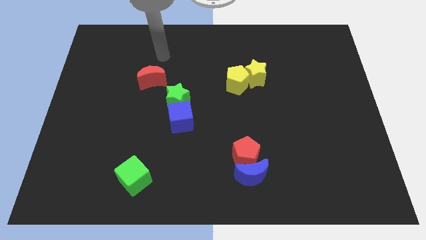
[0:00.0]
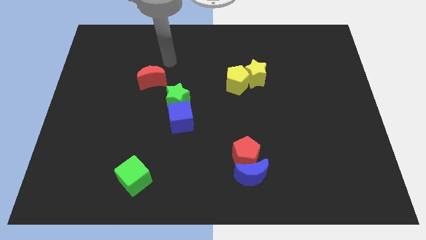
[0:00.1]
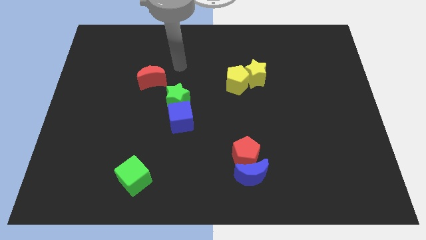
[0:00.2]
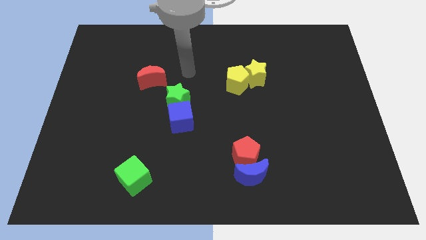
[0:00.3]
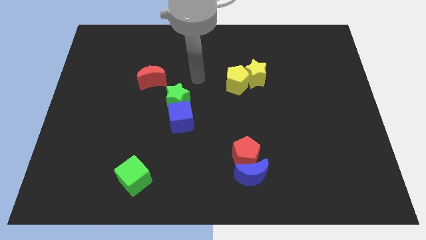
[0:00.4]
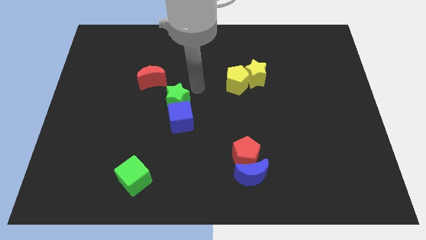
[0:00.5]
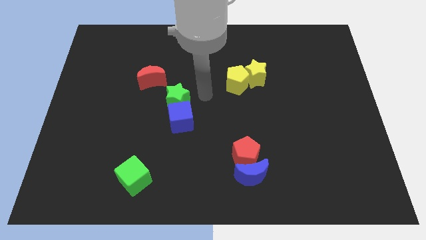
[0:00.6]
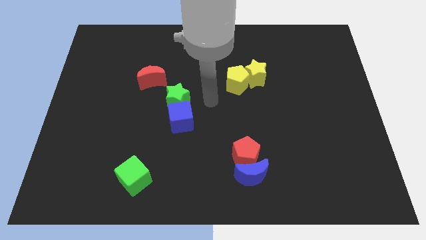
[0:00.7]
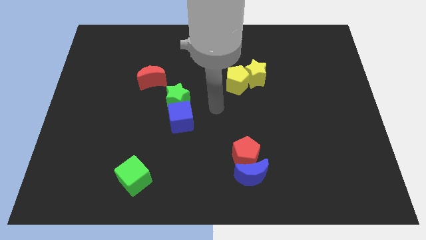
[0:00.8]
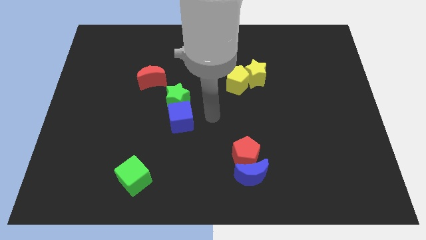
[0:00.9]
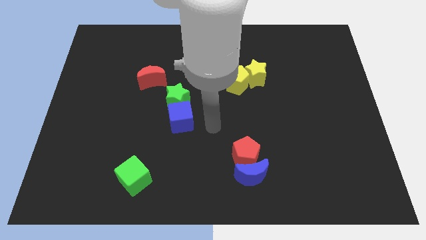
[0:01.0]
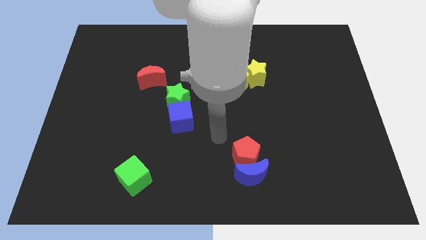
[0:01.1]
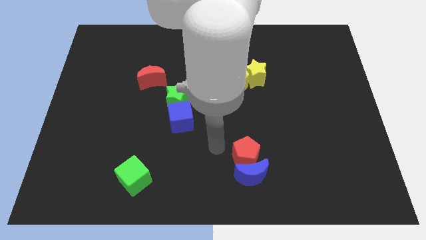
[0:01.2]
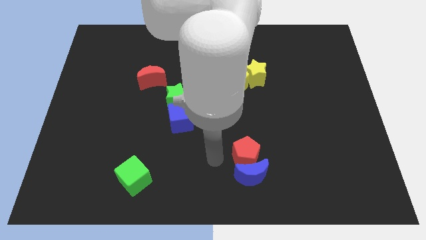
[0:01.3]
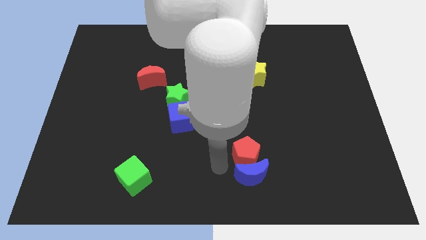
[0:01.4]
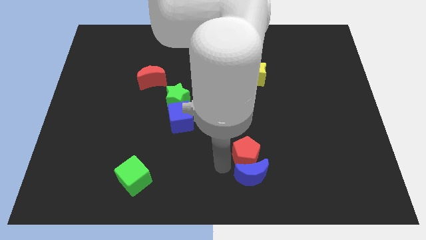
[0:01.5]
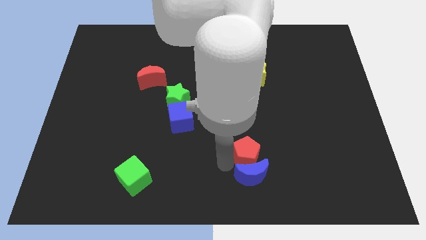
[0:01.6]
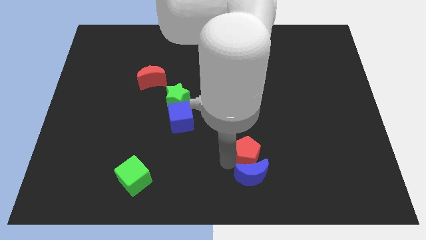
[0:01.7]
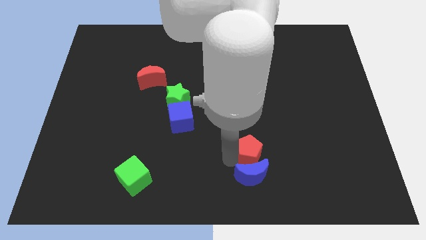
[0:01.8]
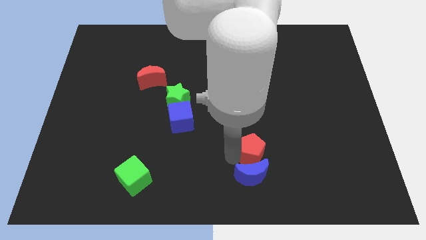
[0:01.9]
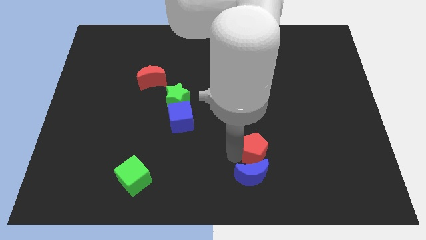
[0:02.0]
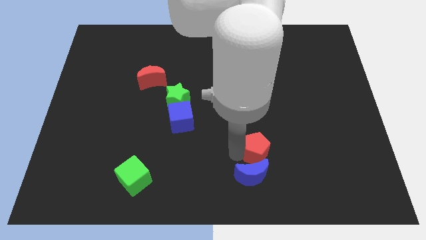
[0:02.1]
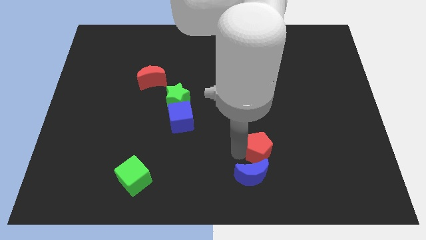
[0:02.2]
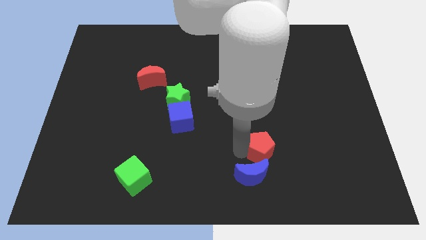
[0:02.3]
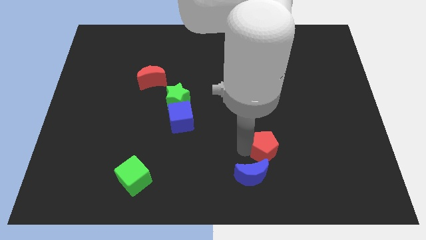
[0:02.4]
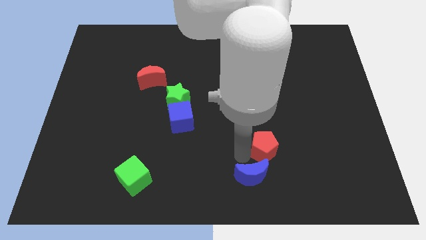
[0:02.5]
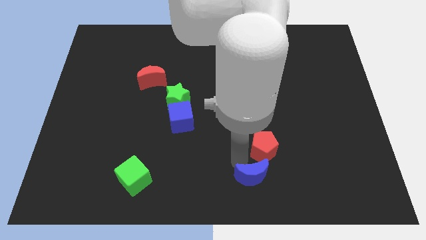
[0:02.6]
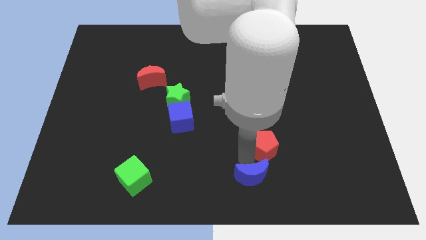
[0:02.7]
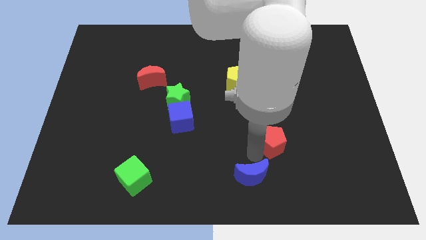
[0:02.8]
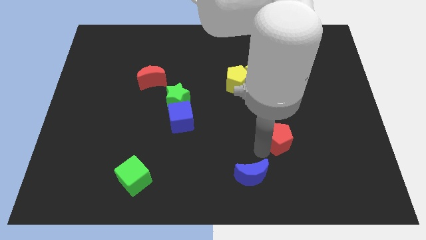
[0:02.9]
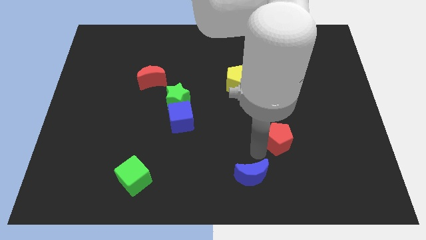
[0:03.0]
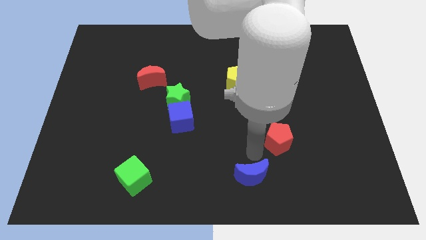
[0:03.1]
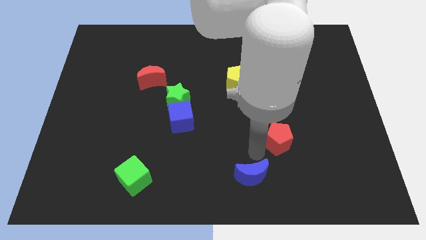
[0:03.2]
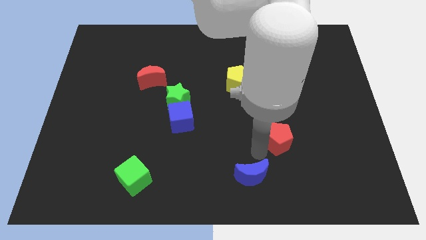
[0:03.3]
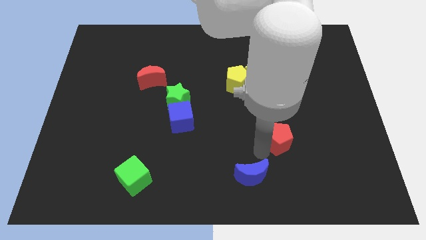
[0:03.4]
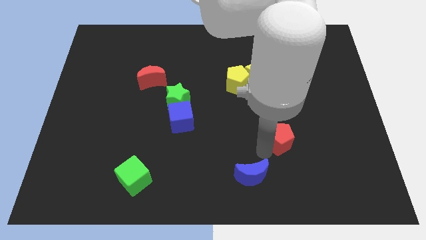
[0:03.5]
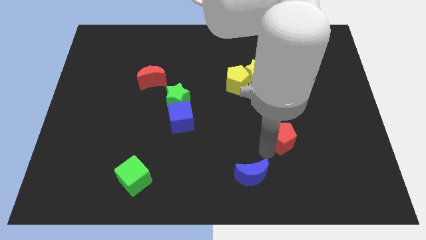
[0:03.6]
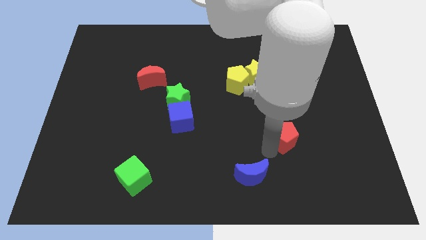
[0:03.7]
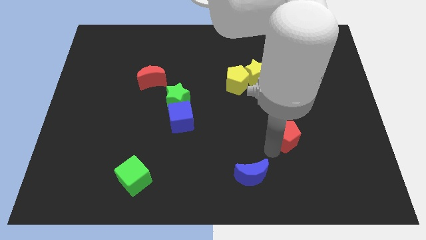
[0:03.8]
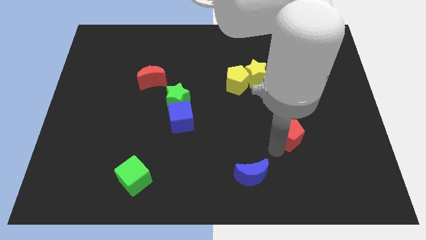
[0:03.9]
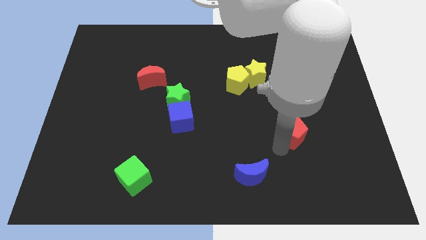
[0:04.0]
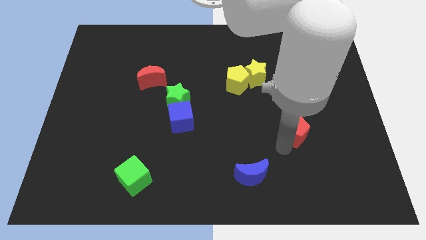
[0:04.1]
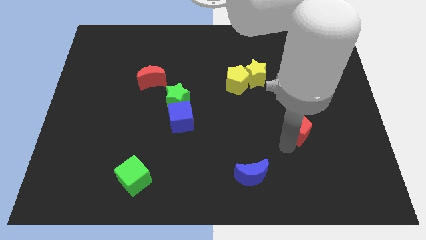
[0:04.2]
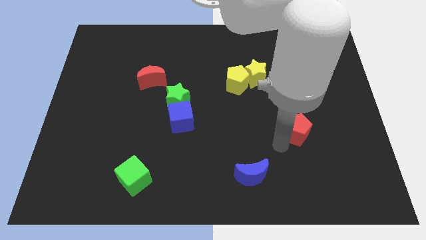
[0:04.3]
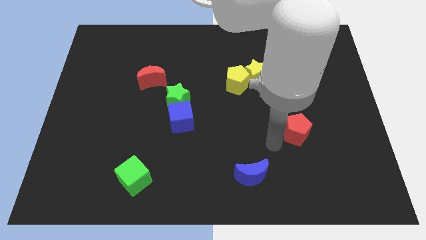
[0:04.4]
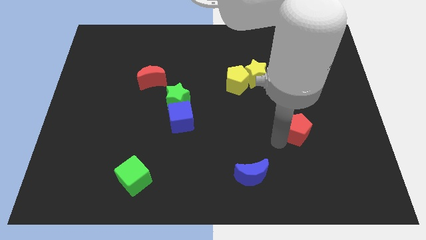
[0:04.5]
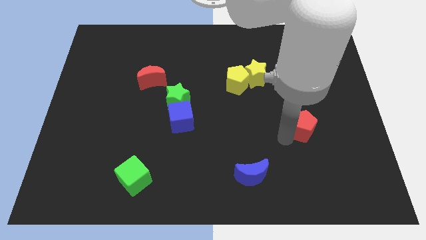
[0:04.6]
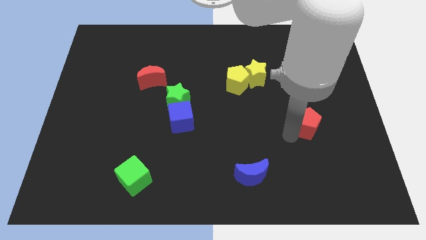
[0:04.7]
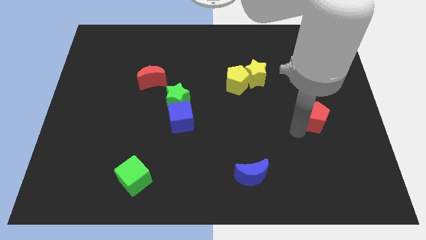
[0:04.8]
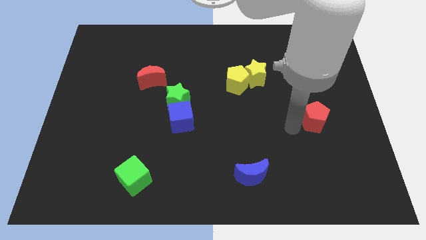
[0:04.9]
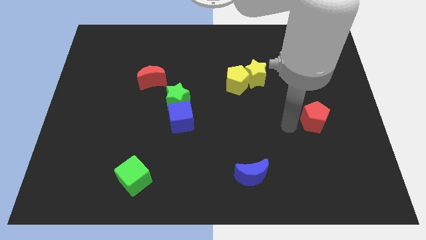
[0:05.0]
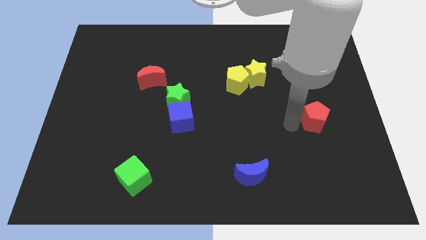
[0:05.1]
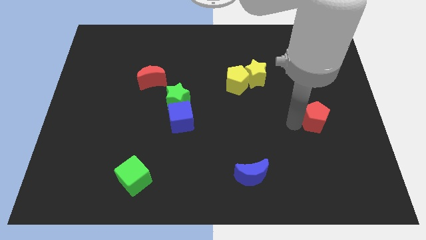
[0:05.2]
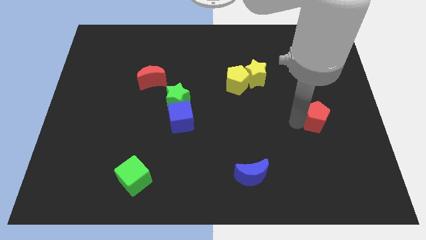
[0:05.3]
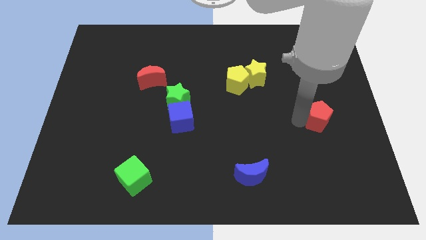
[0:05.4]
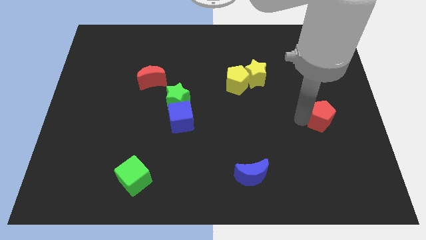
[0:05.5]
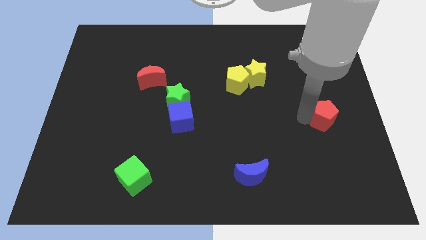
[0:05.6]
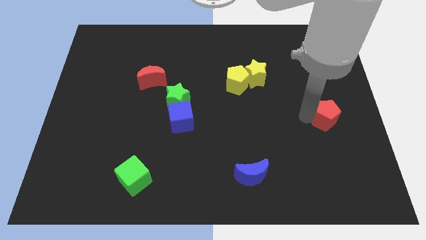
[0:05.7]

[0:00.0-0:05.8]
push the red pentagon to the right side

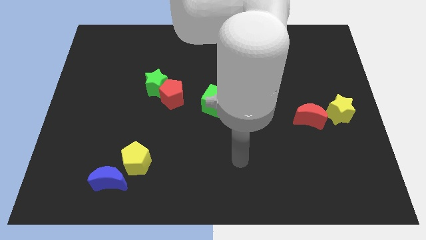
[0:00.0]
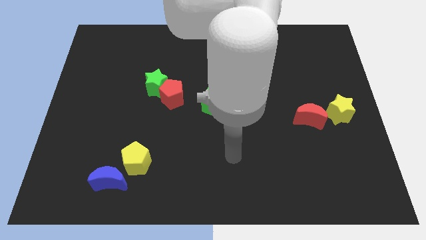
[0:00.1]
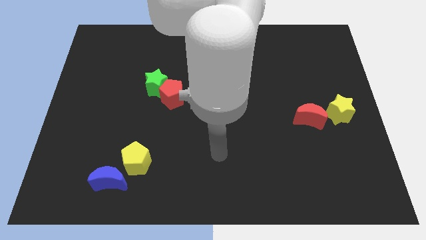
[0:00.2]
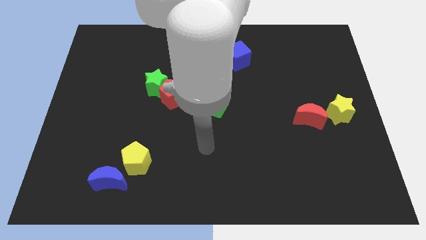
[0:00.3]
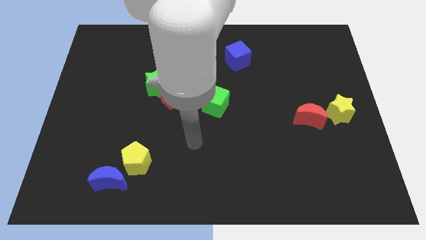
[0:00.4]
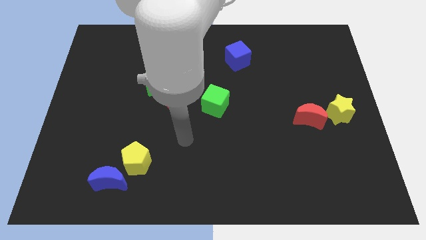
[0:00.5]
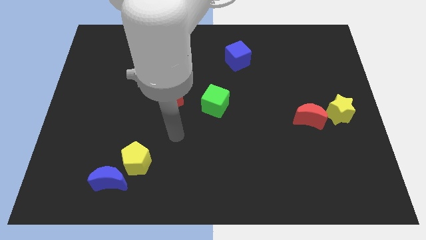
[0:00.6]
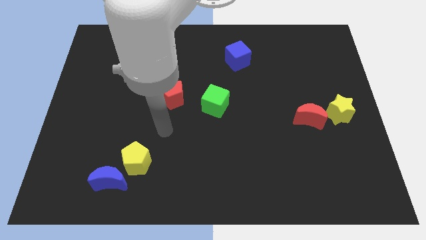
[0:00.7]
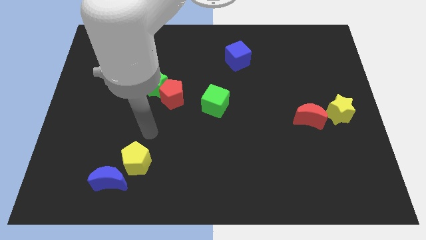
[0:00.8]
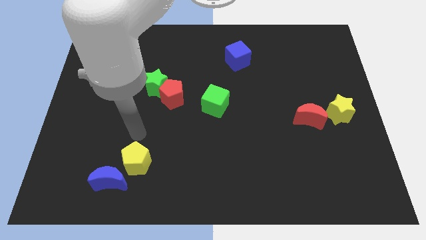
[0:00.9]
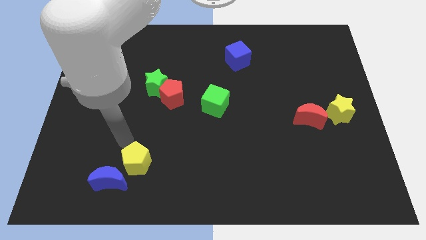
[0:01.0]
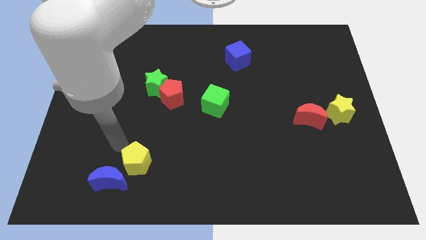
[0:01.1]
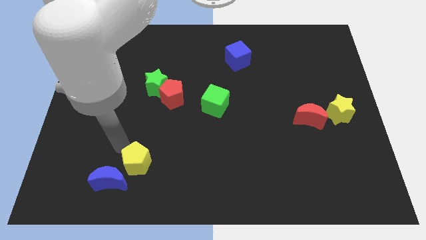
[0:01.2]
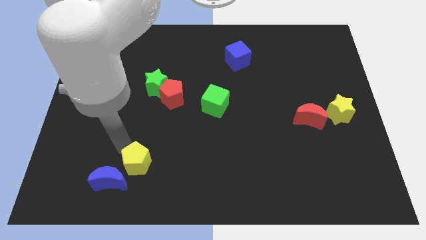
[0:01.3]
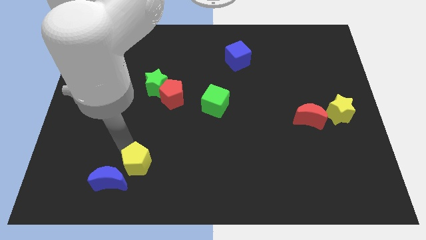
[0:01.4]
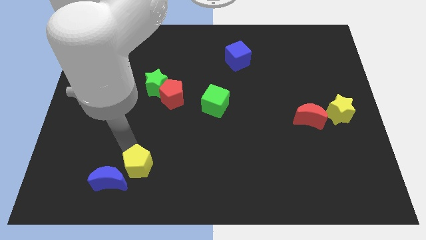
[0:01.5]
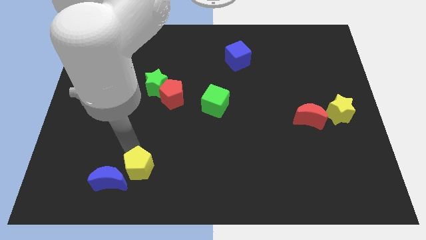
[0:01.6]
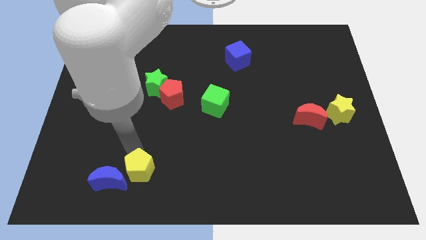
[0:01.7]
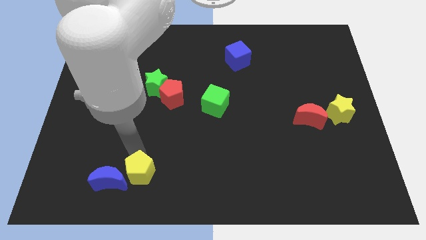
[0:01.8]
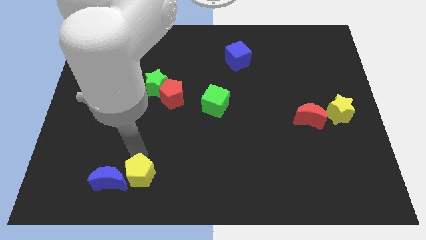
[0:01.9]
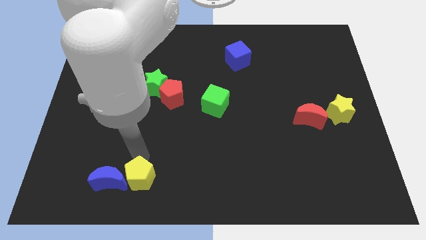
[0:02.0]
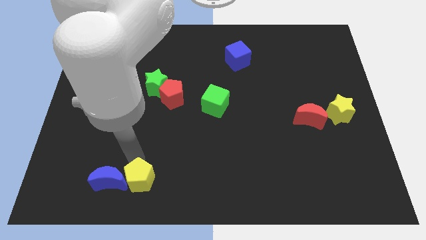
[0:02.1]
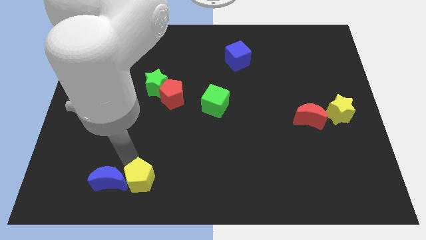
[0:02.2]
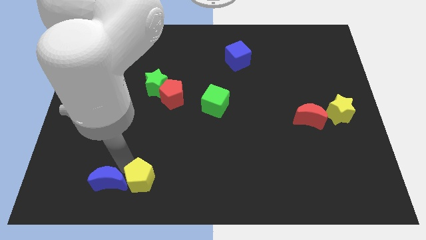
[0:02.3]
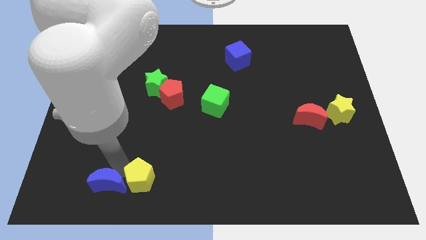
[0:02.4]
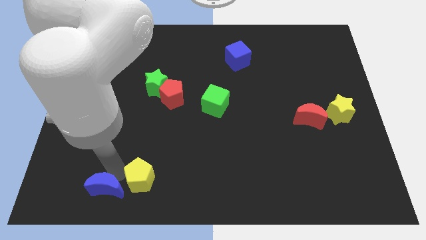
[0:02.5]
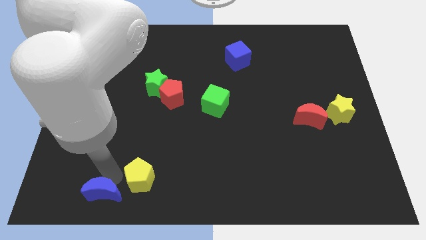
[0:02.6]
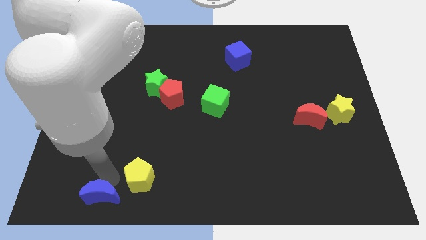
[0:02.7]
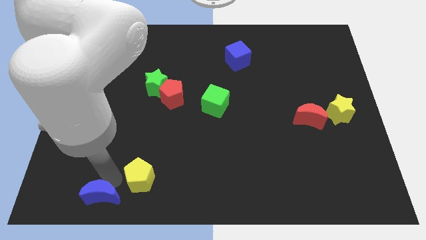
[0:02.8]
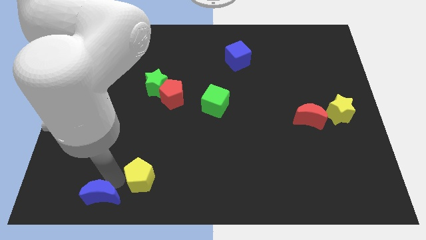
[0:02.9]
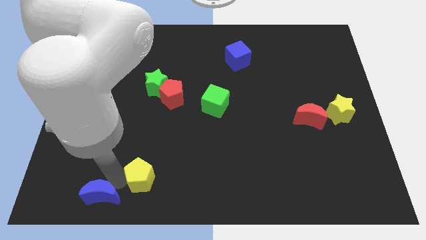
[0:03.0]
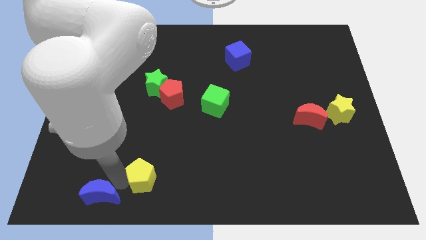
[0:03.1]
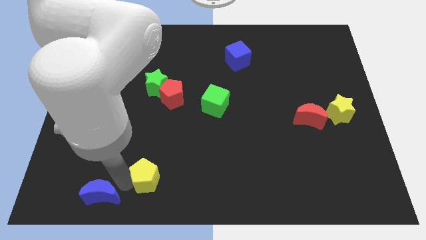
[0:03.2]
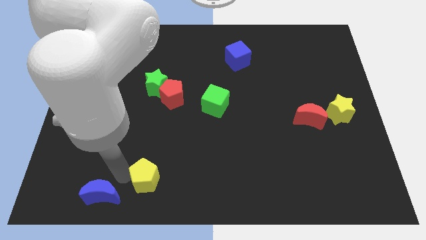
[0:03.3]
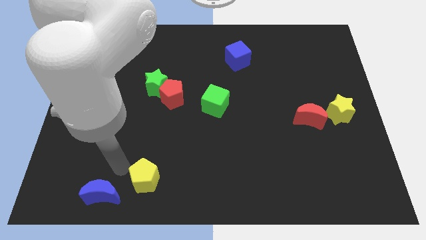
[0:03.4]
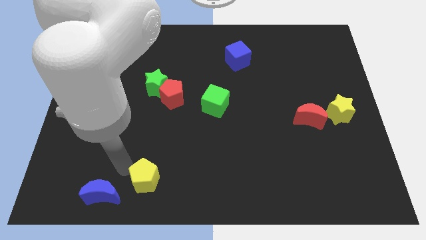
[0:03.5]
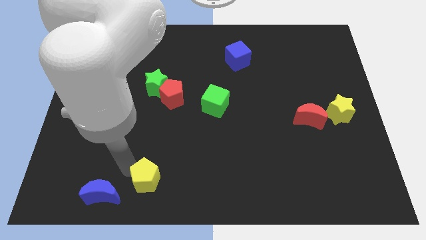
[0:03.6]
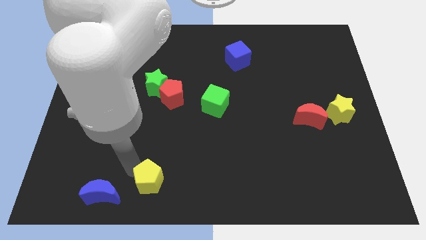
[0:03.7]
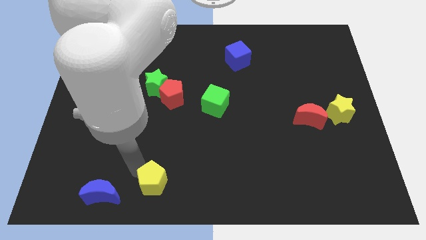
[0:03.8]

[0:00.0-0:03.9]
slide the yellow pentagon to the bottom
